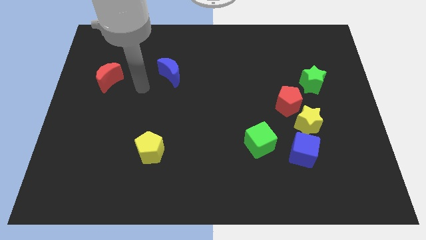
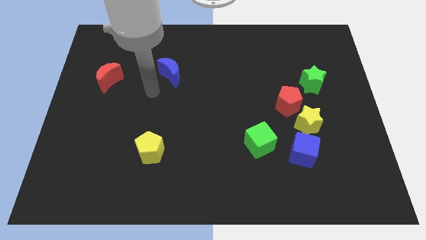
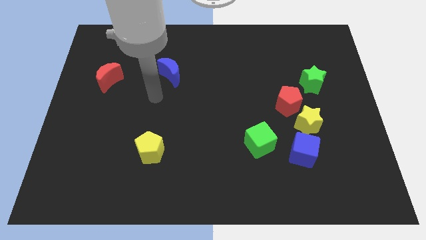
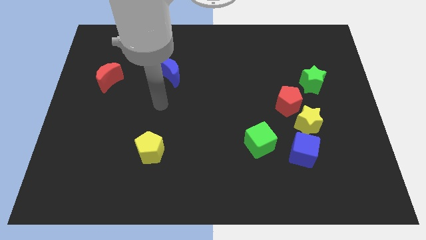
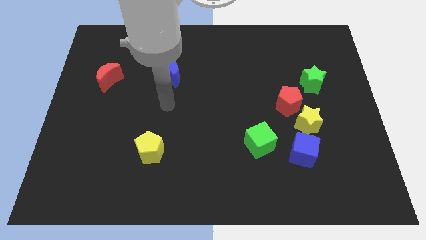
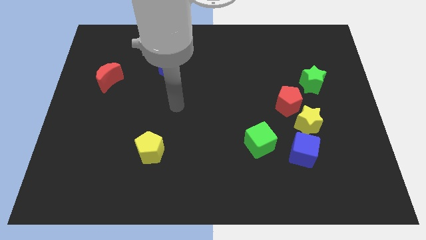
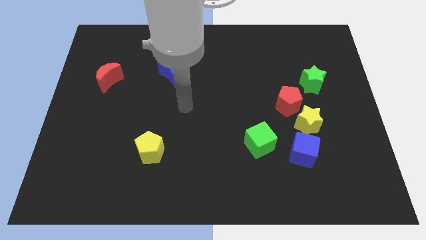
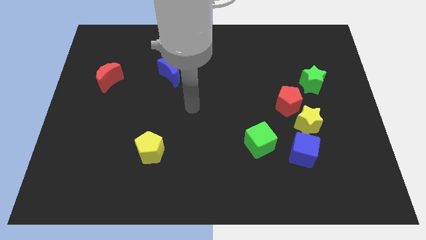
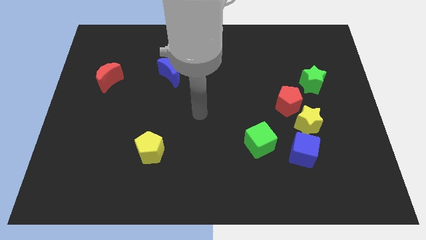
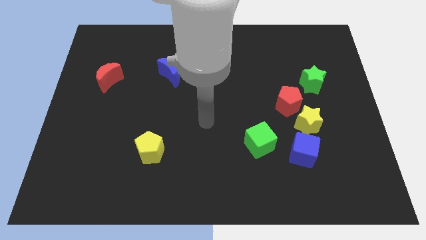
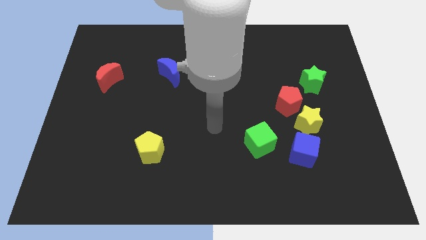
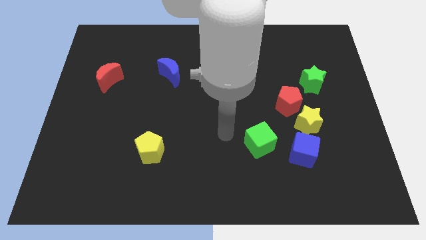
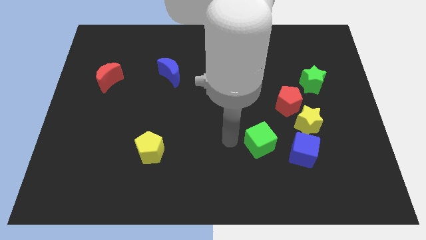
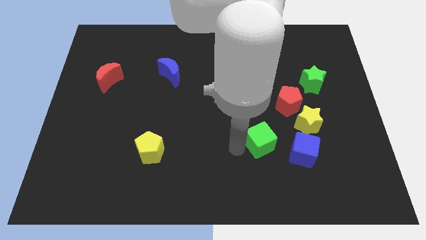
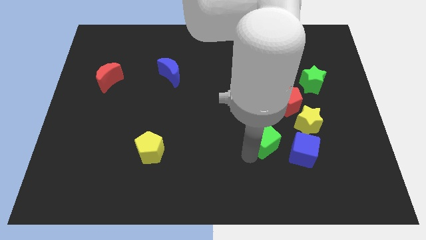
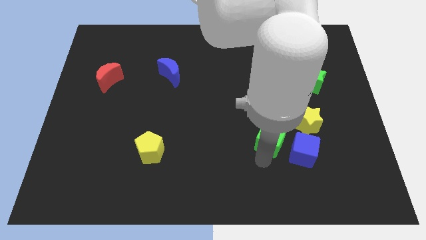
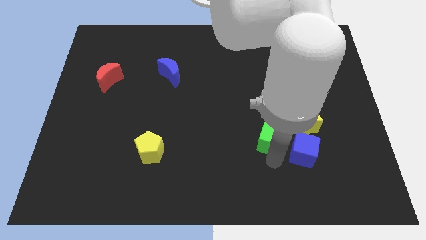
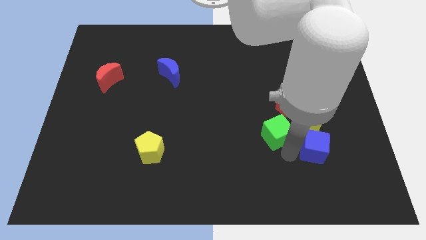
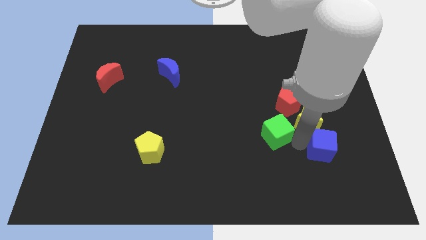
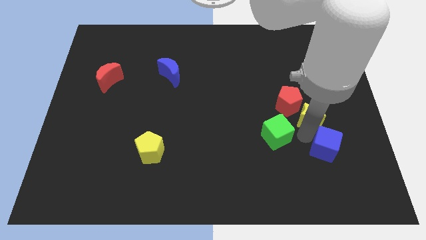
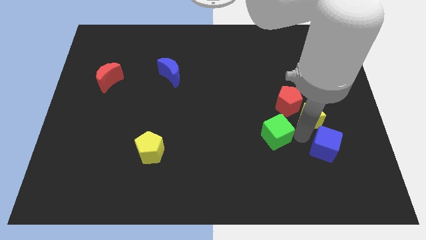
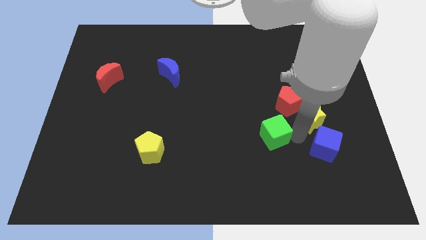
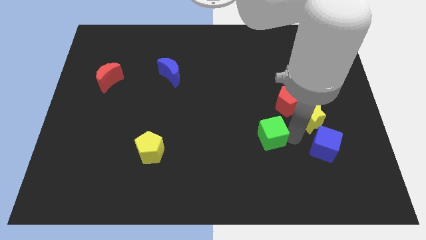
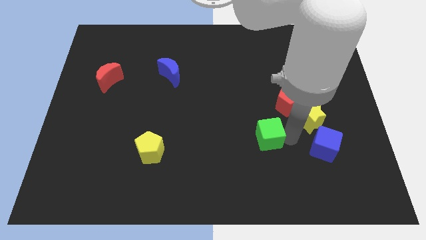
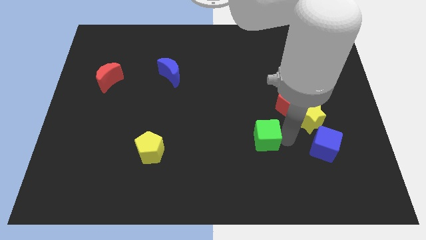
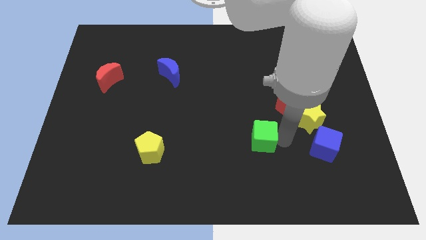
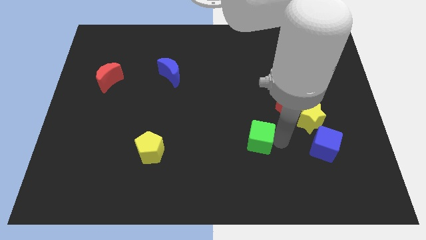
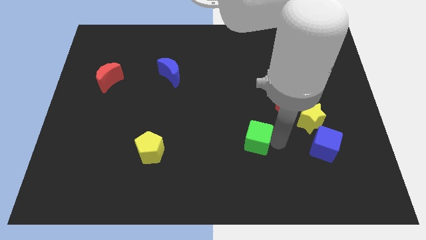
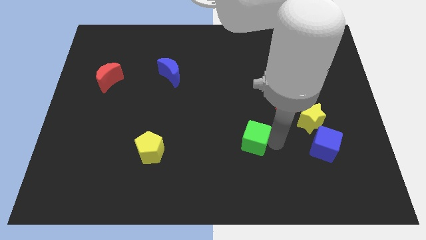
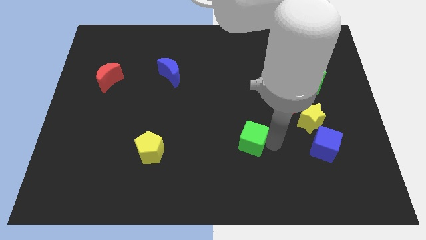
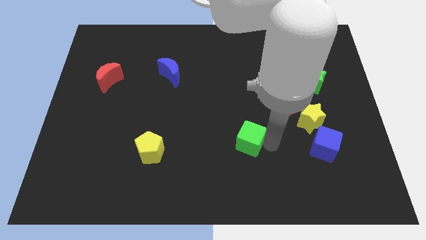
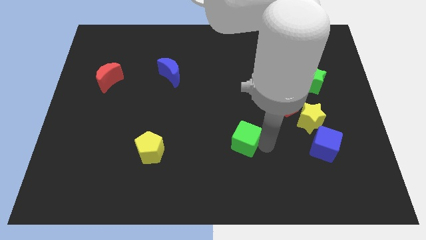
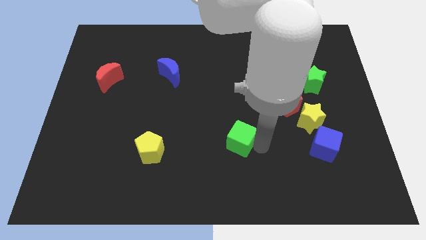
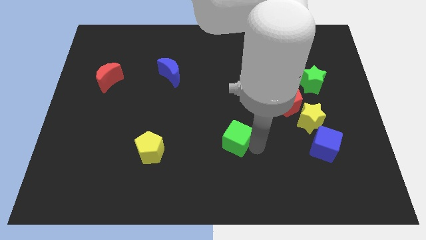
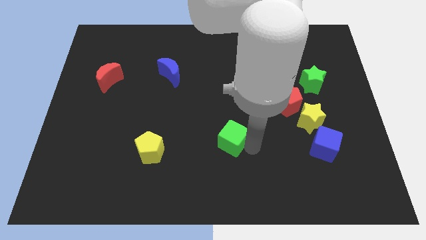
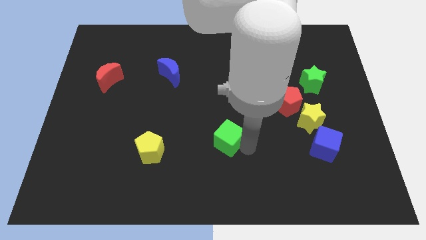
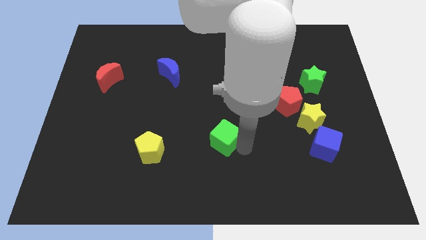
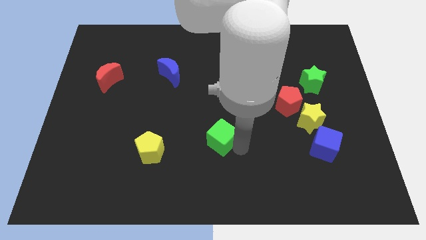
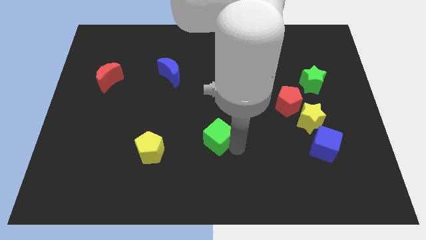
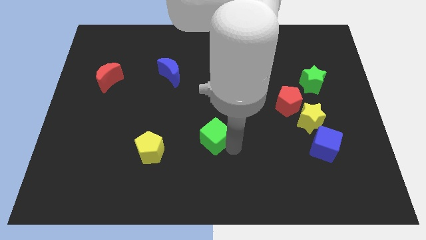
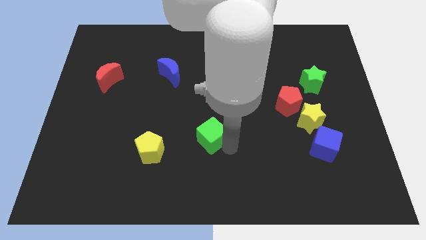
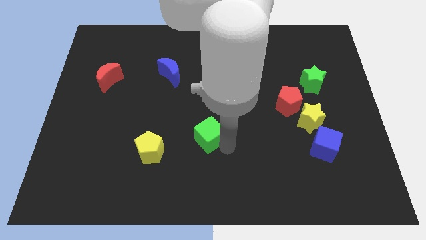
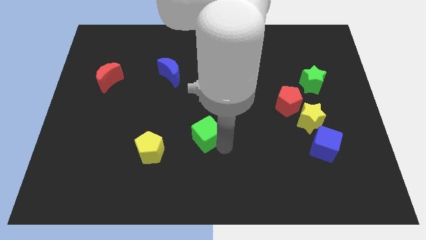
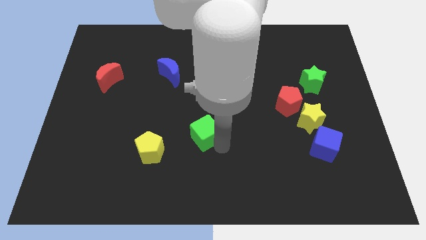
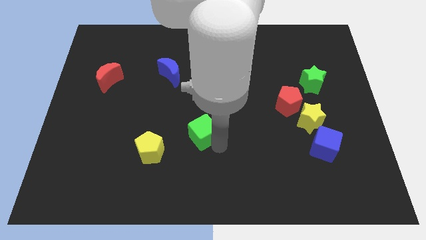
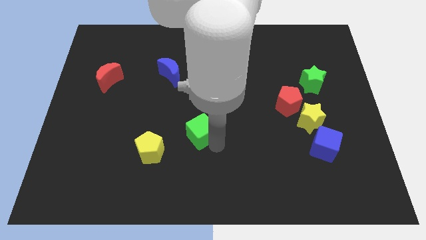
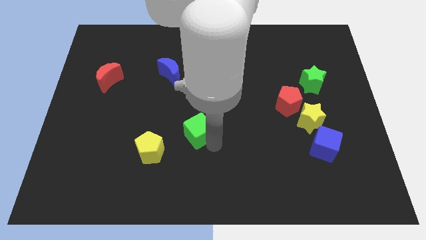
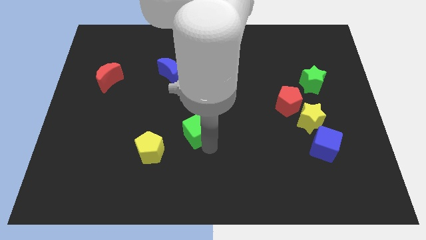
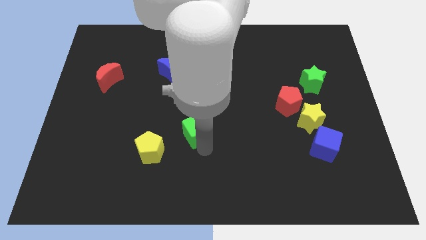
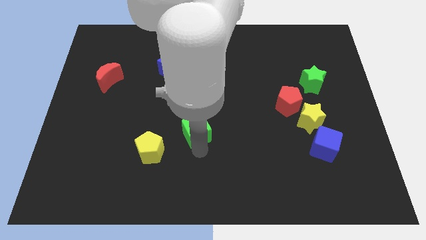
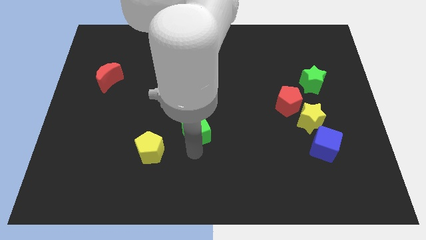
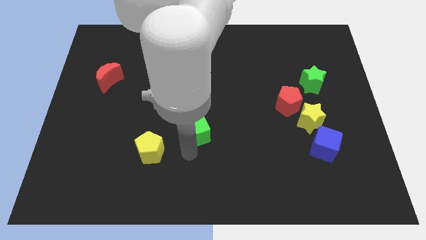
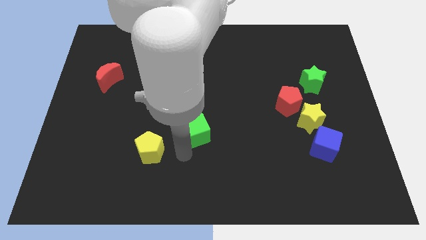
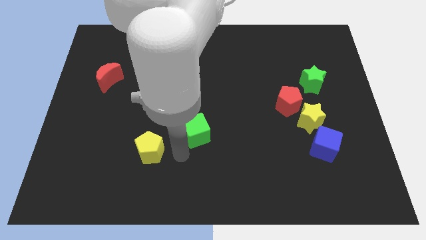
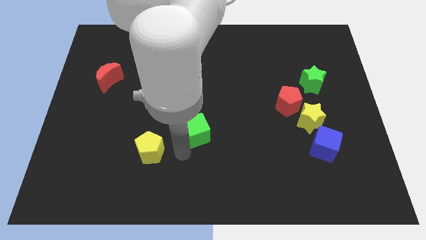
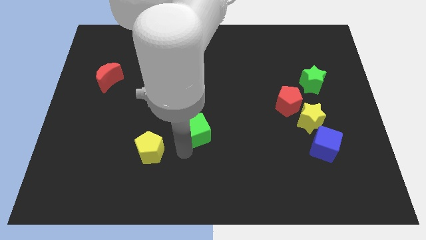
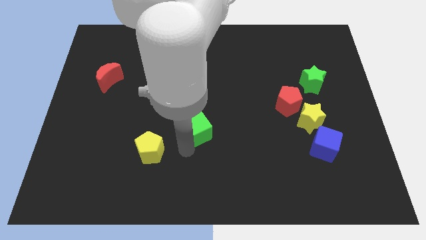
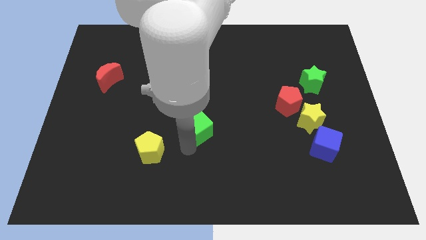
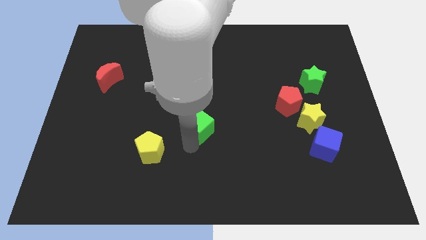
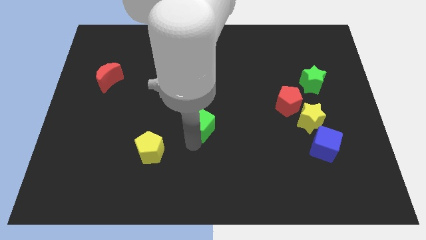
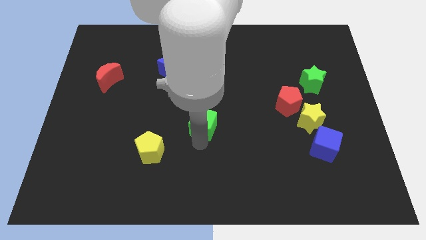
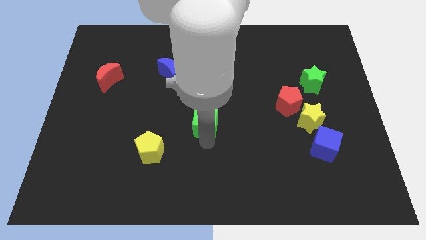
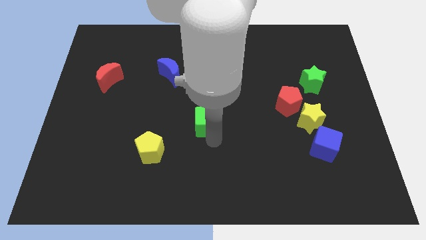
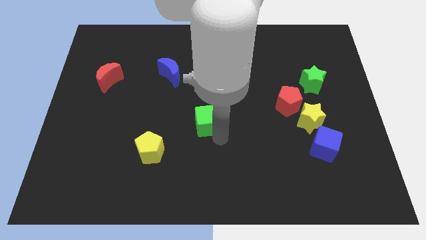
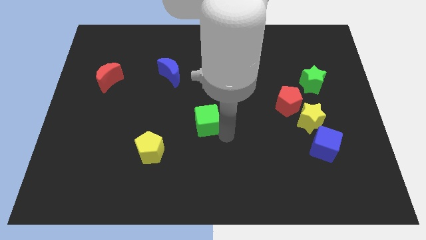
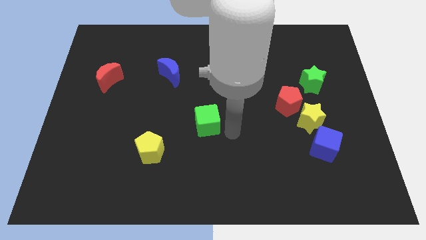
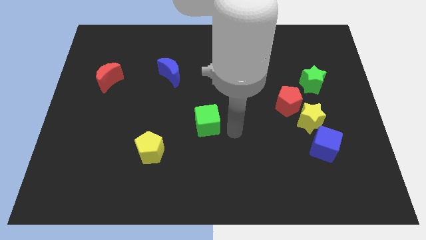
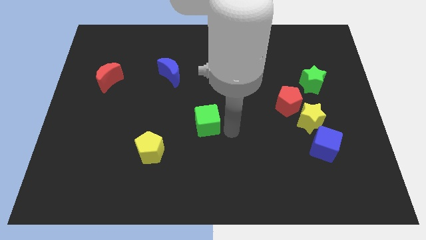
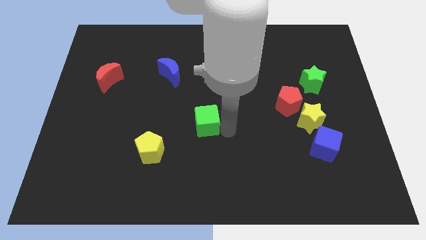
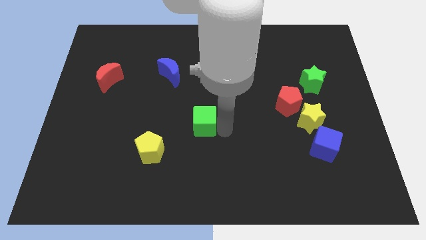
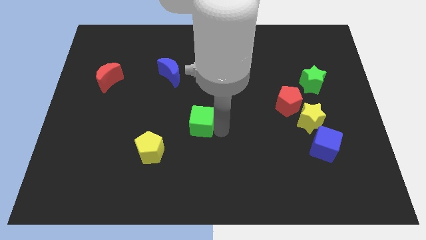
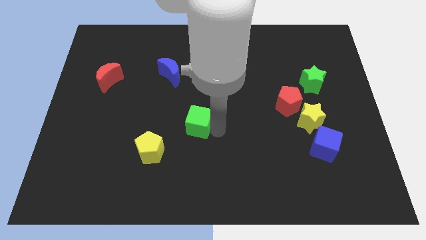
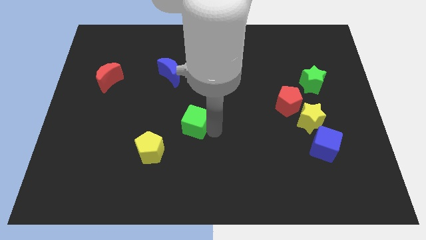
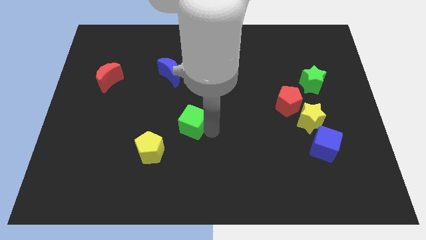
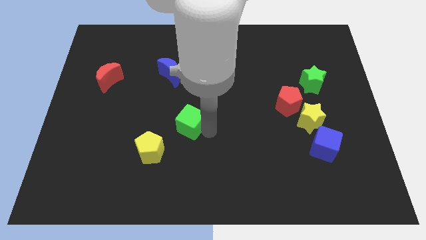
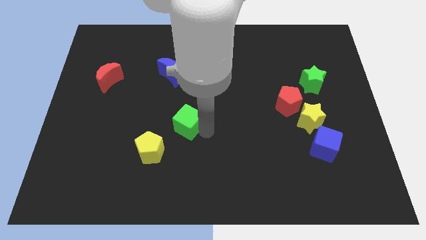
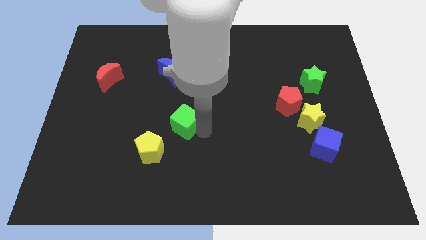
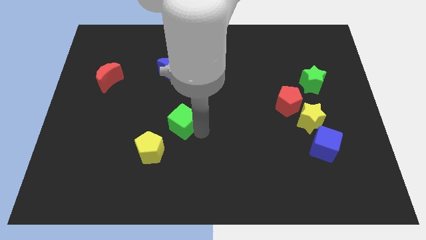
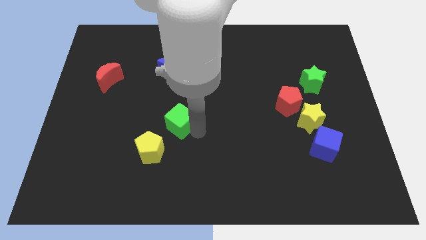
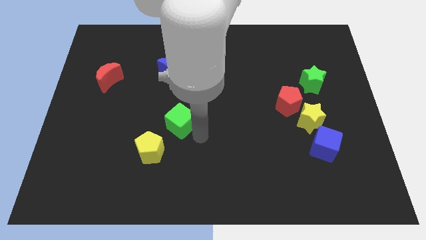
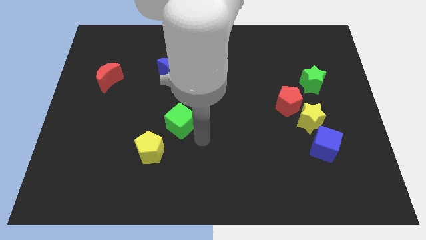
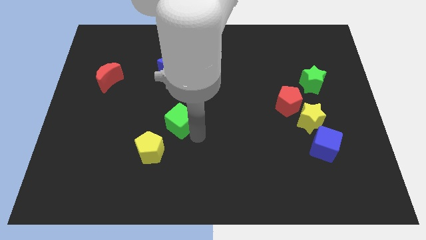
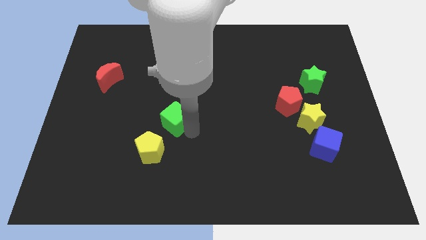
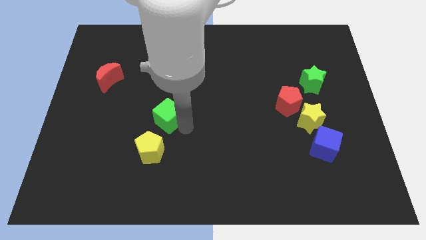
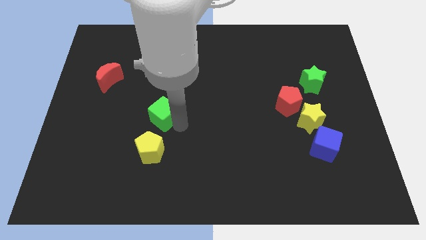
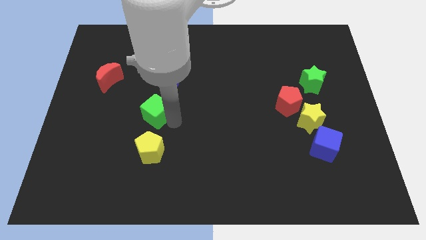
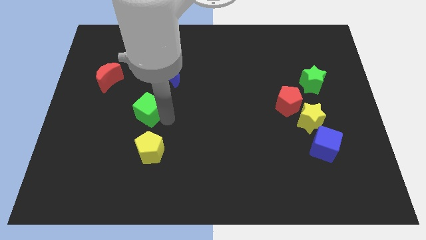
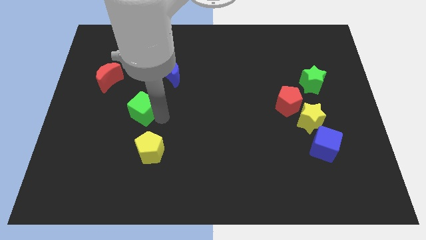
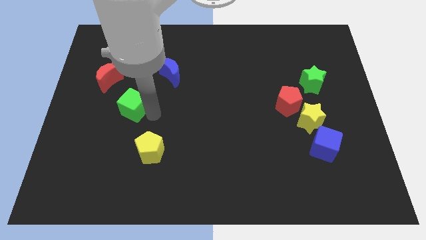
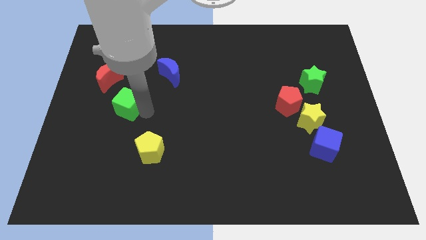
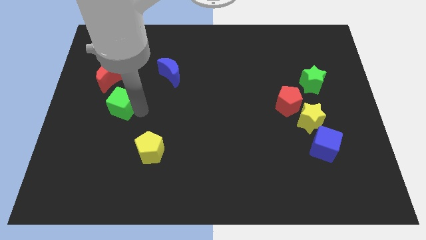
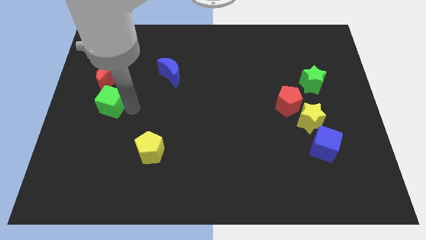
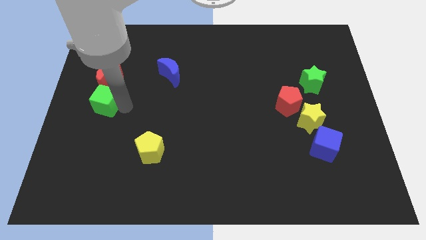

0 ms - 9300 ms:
slide the green cube to the left side of the board
